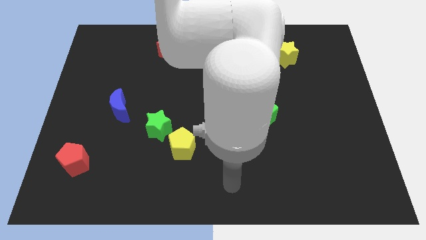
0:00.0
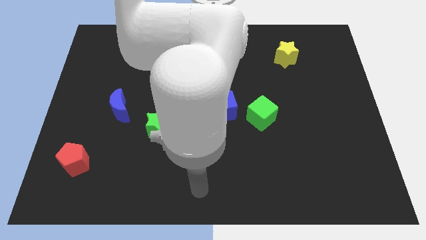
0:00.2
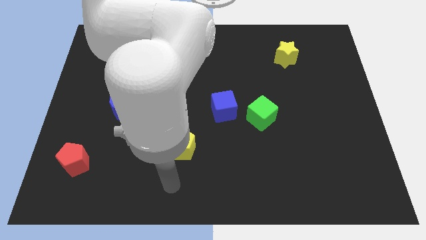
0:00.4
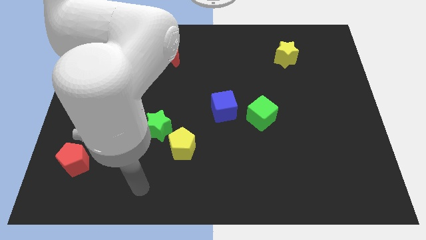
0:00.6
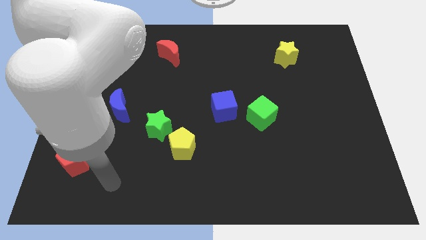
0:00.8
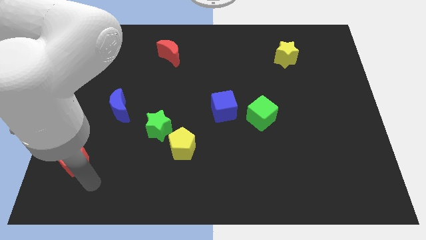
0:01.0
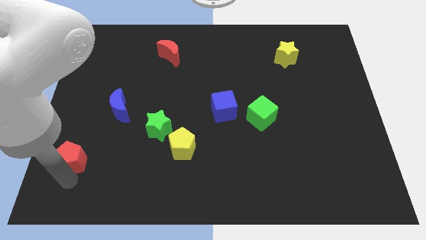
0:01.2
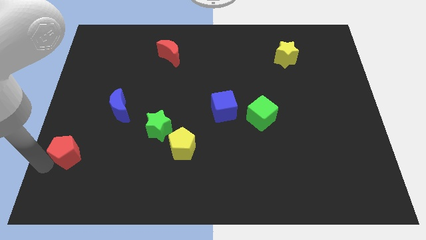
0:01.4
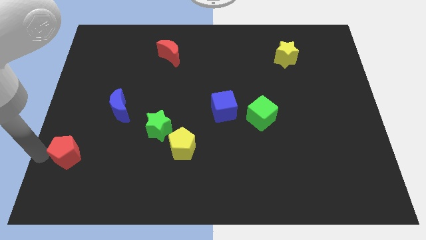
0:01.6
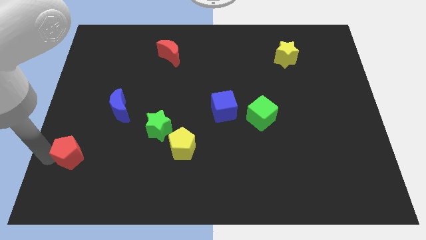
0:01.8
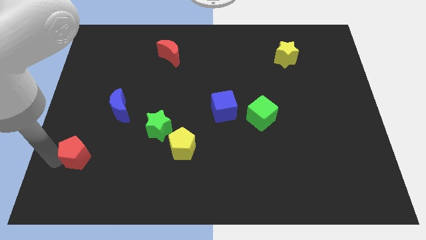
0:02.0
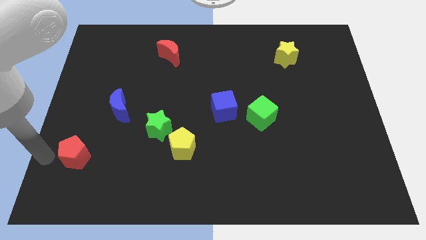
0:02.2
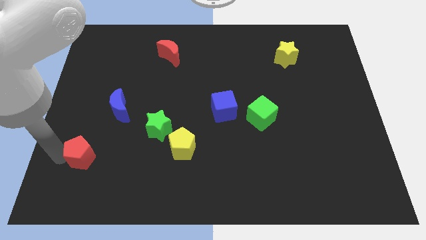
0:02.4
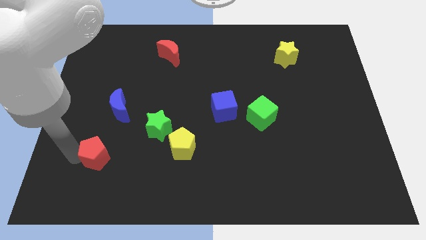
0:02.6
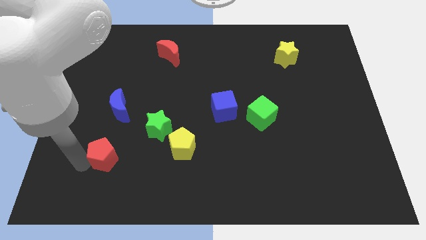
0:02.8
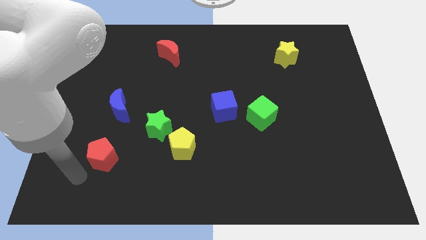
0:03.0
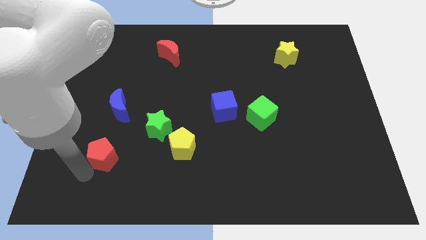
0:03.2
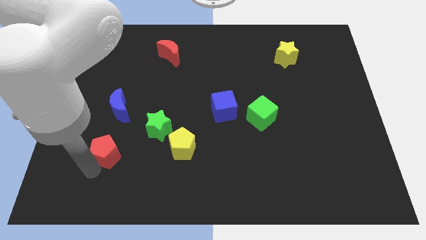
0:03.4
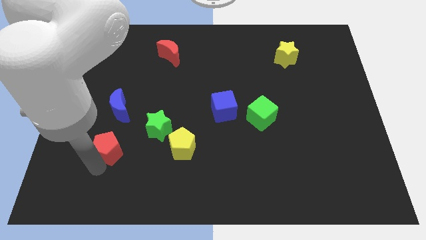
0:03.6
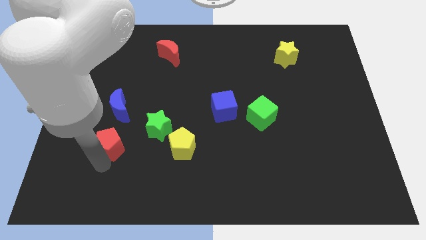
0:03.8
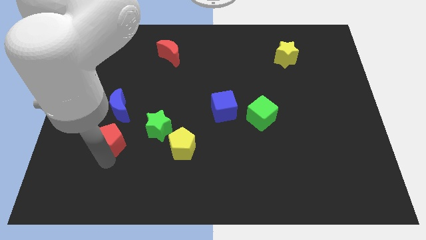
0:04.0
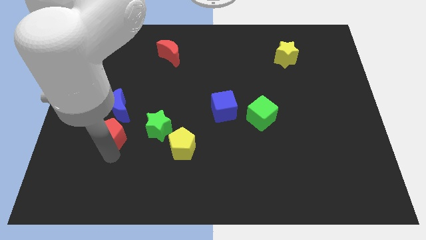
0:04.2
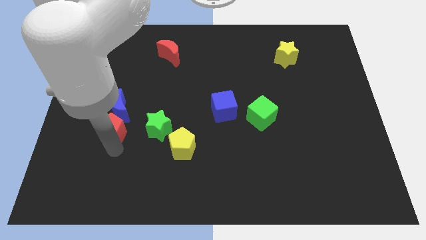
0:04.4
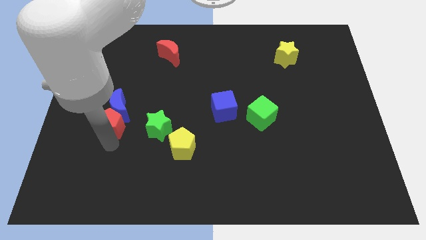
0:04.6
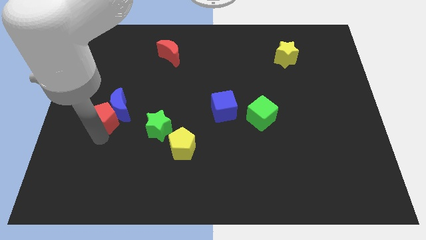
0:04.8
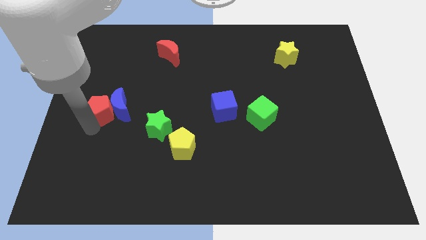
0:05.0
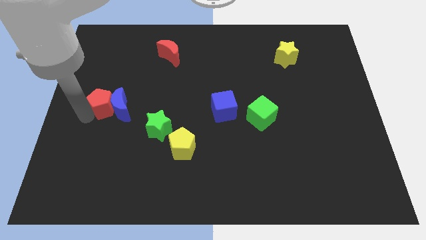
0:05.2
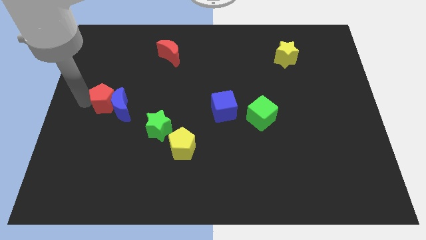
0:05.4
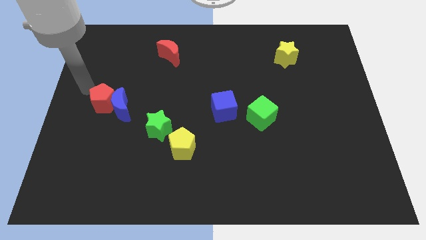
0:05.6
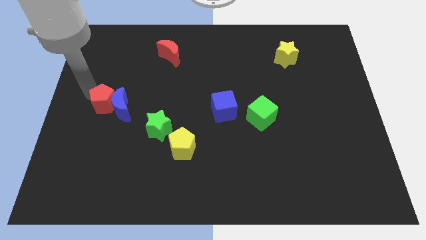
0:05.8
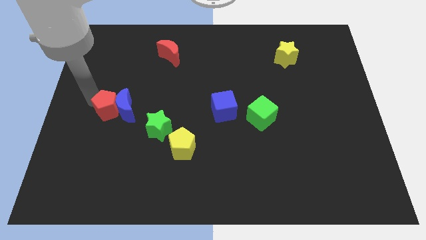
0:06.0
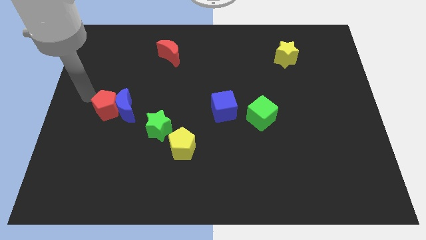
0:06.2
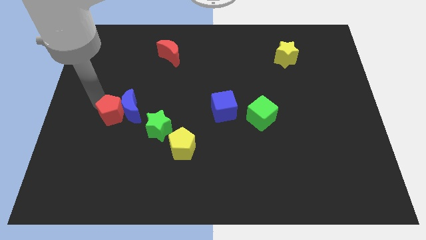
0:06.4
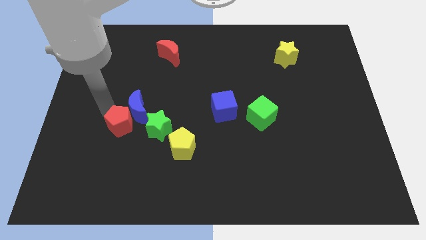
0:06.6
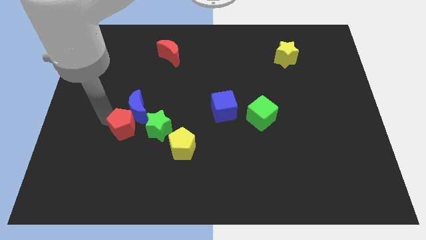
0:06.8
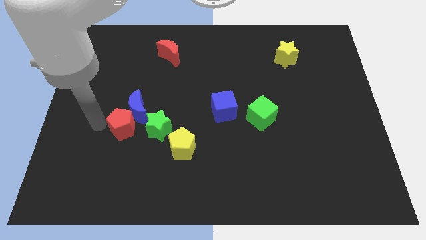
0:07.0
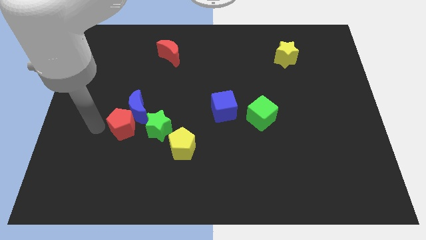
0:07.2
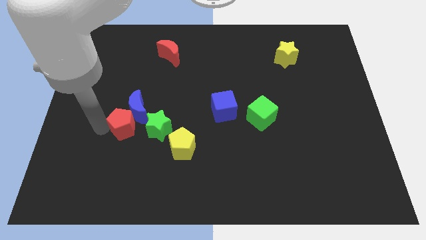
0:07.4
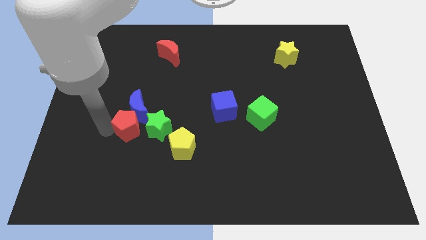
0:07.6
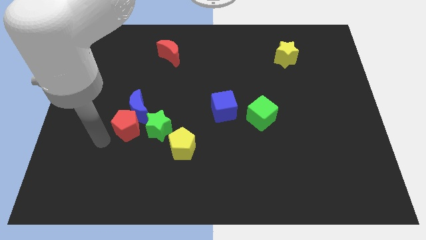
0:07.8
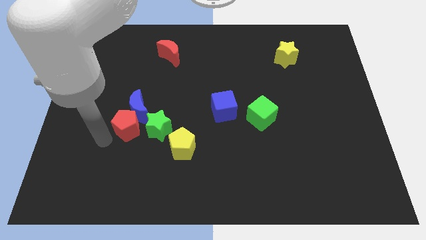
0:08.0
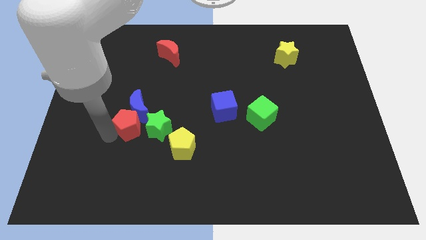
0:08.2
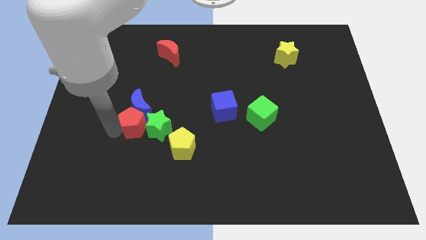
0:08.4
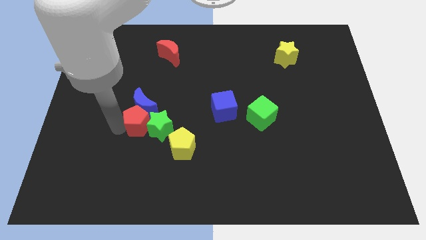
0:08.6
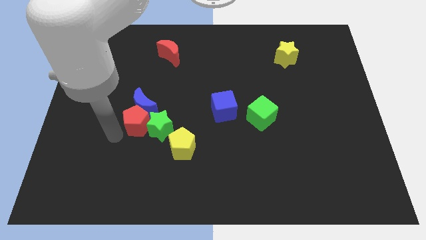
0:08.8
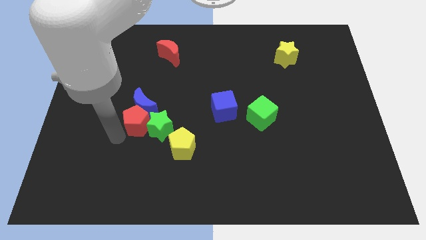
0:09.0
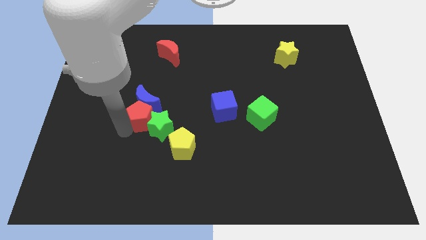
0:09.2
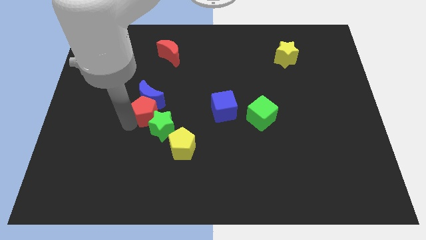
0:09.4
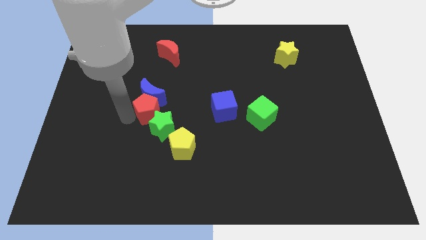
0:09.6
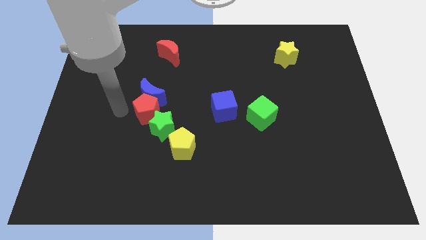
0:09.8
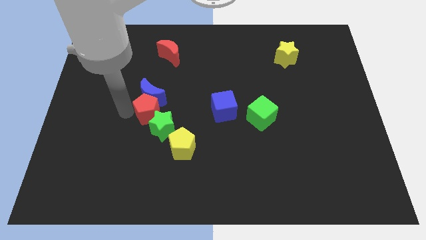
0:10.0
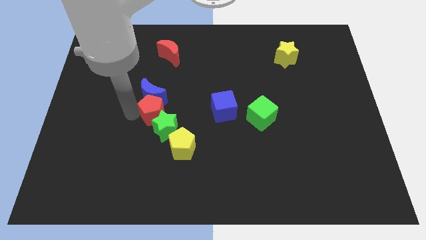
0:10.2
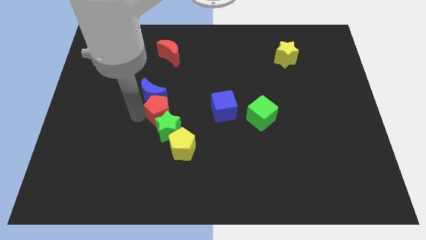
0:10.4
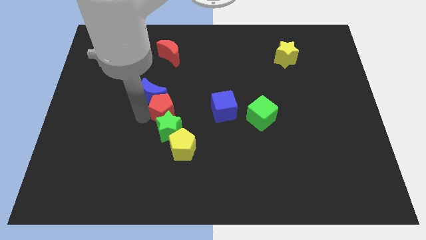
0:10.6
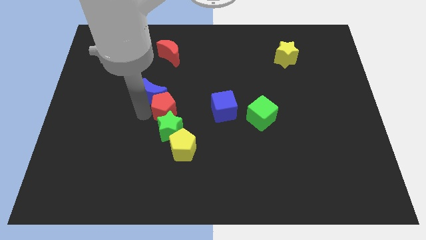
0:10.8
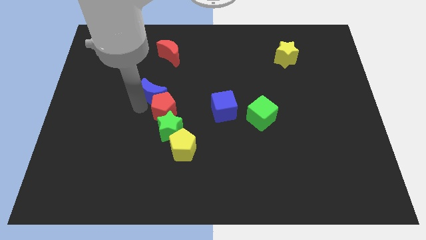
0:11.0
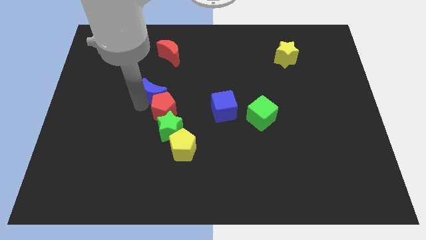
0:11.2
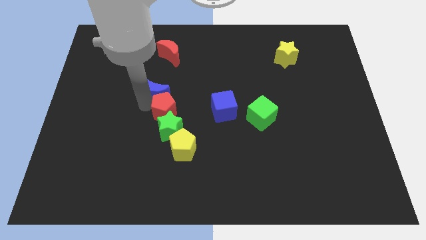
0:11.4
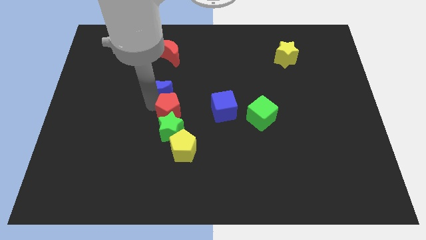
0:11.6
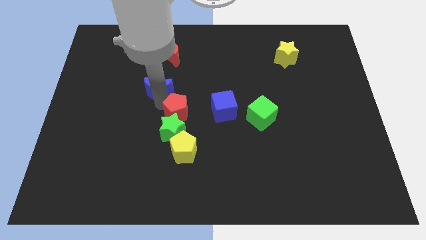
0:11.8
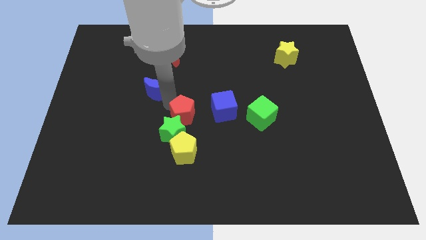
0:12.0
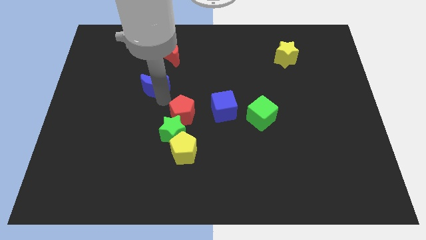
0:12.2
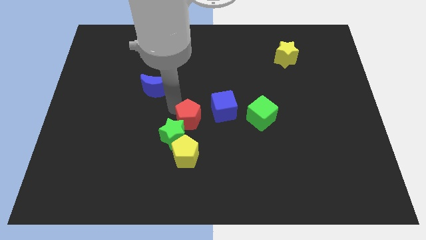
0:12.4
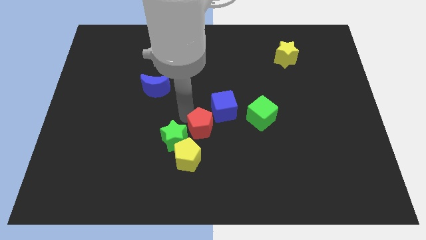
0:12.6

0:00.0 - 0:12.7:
slide the red pentagon to the top right side of the yellow pentagon

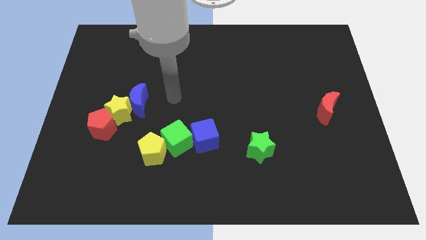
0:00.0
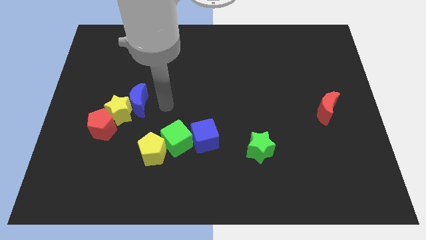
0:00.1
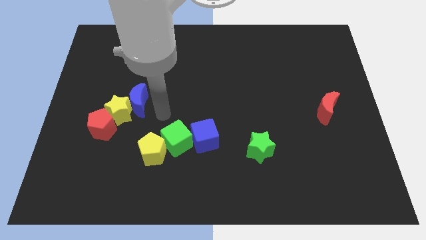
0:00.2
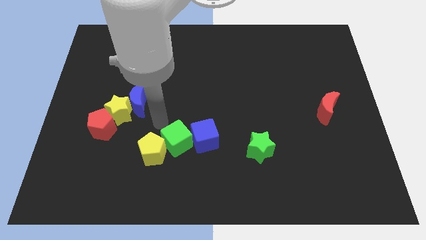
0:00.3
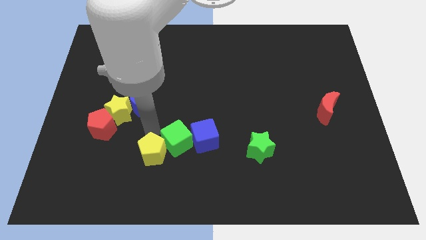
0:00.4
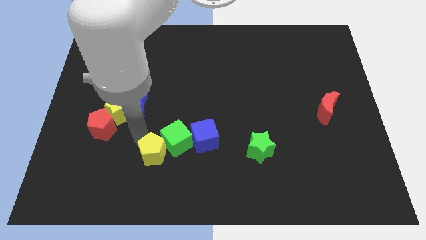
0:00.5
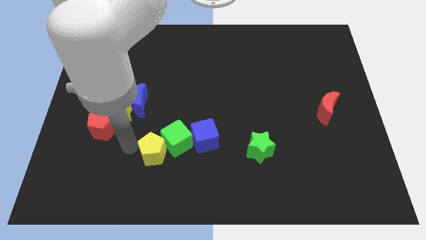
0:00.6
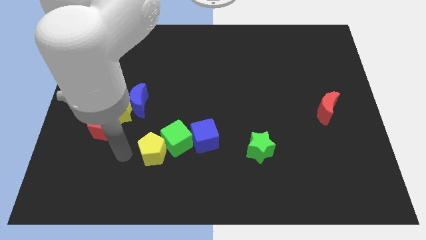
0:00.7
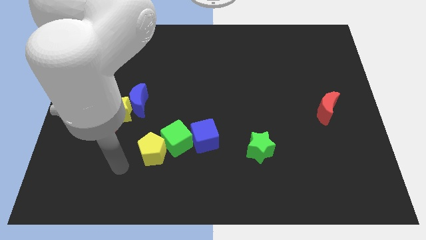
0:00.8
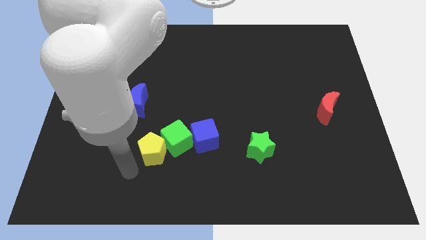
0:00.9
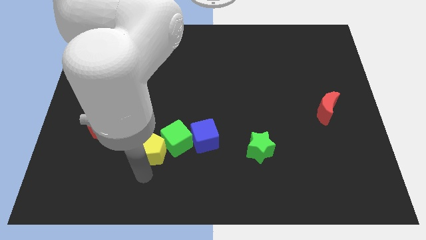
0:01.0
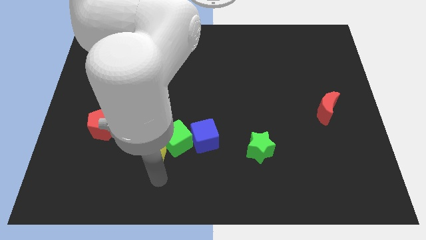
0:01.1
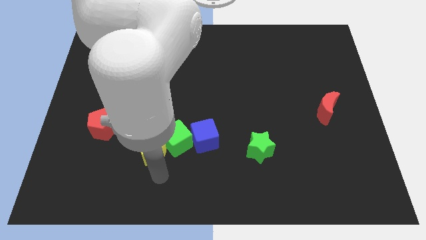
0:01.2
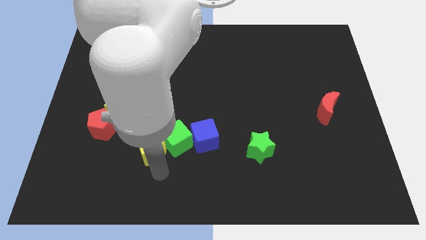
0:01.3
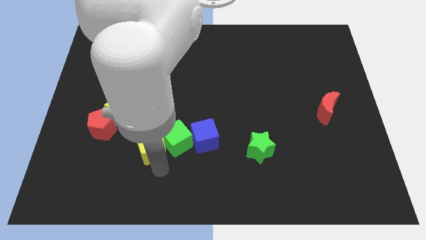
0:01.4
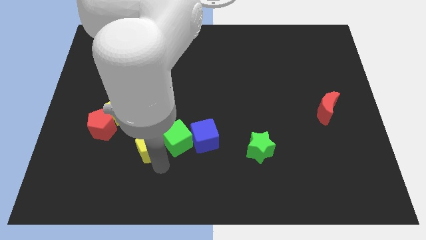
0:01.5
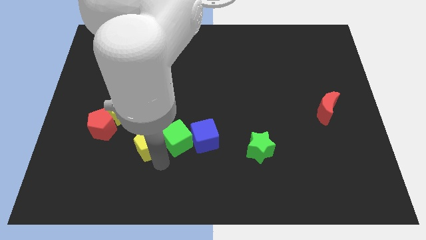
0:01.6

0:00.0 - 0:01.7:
put the yellow pentagon to the right side of the red pentagon
